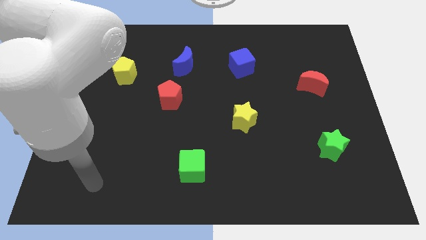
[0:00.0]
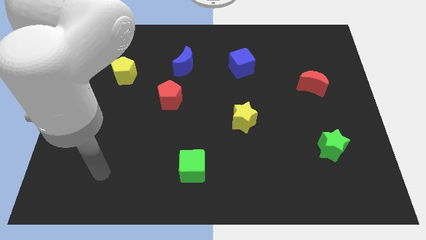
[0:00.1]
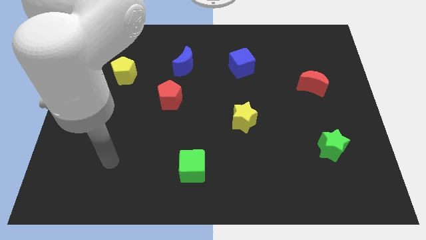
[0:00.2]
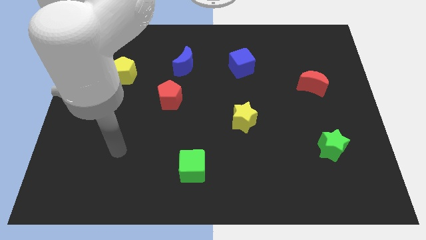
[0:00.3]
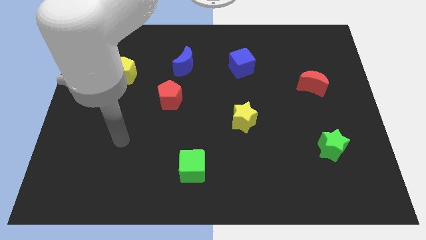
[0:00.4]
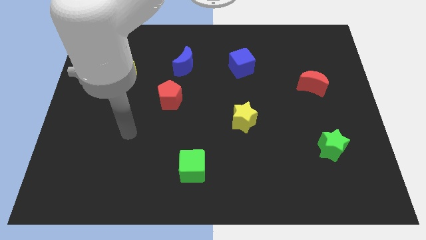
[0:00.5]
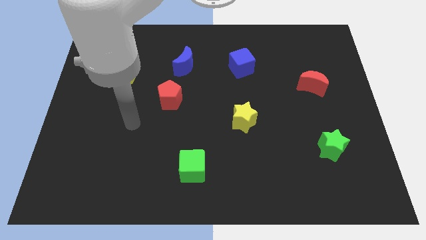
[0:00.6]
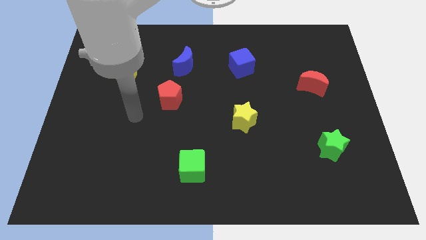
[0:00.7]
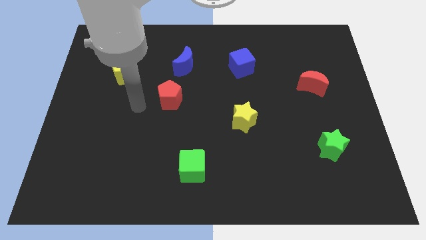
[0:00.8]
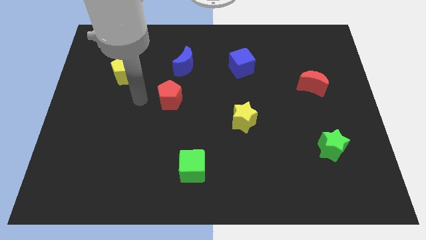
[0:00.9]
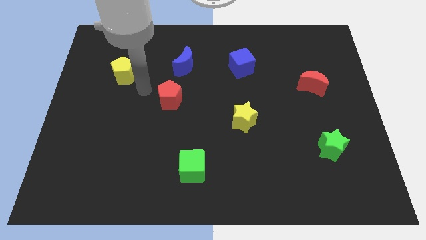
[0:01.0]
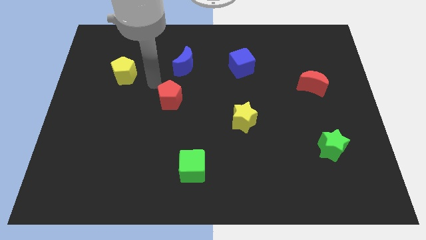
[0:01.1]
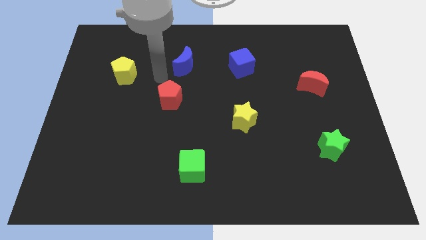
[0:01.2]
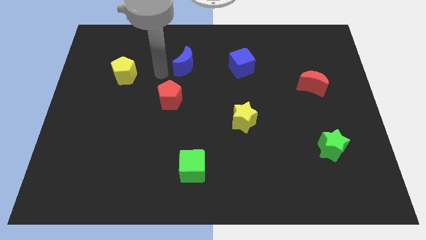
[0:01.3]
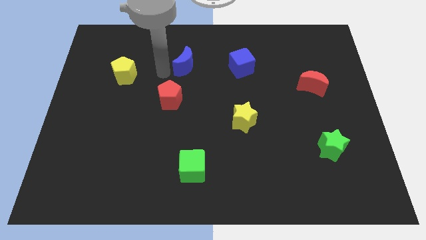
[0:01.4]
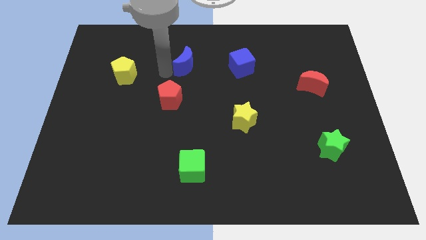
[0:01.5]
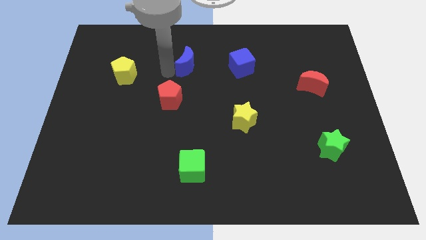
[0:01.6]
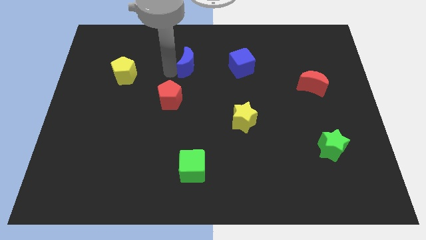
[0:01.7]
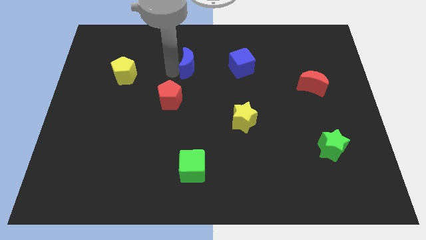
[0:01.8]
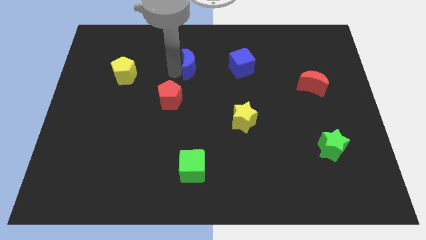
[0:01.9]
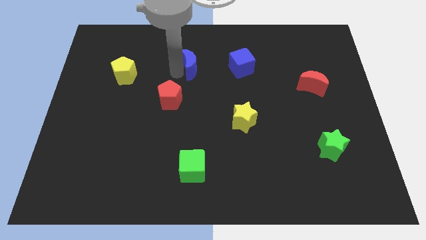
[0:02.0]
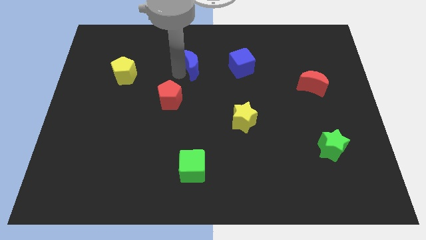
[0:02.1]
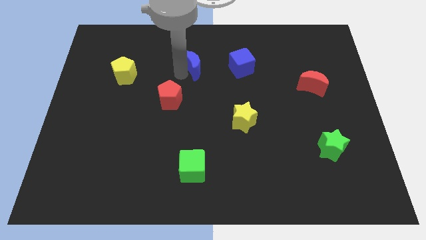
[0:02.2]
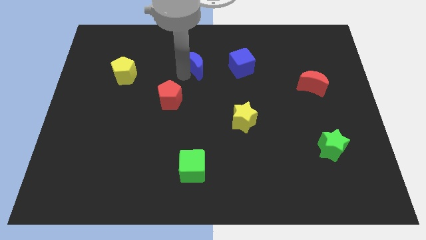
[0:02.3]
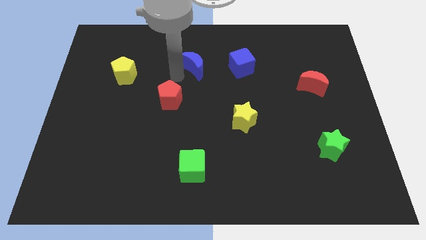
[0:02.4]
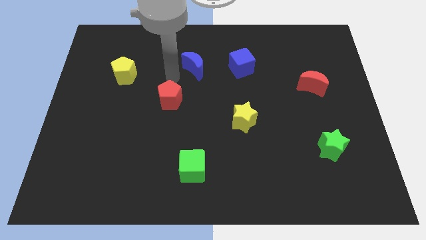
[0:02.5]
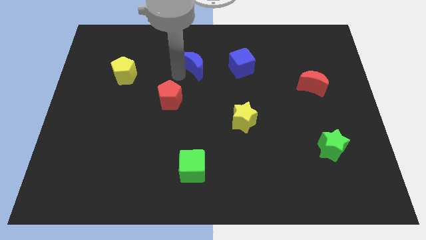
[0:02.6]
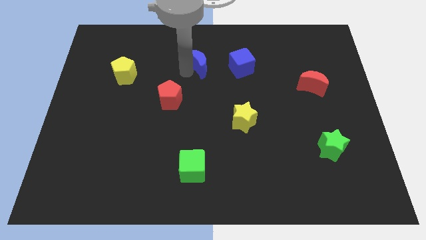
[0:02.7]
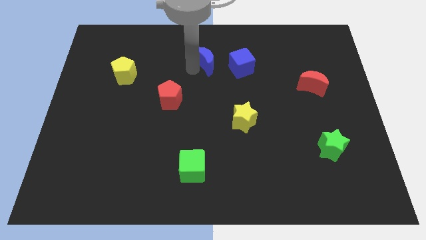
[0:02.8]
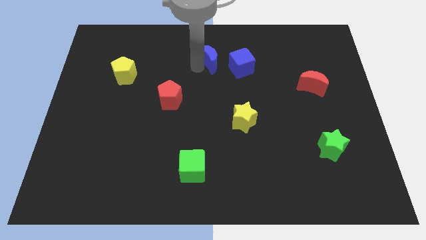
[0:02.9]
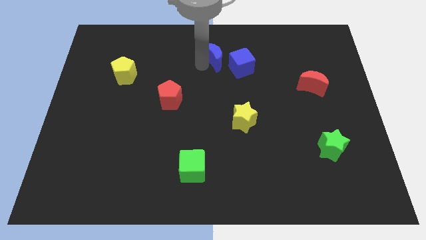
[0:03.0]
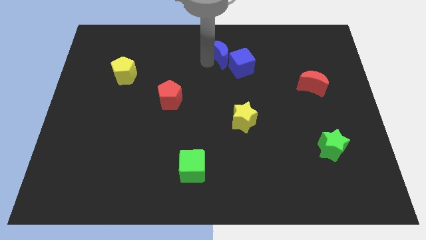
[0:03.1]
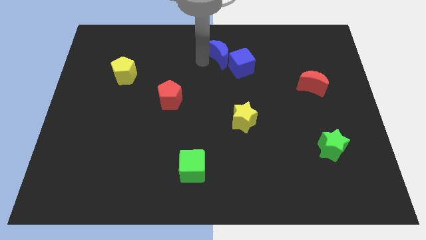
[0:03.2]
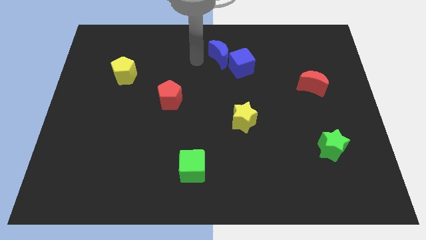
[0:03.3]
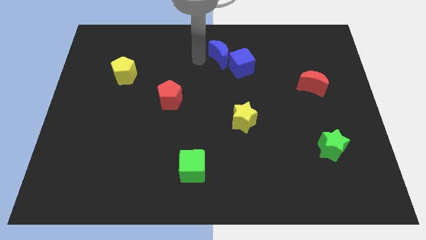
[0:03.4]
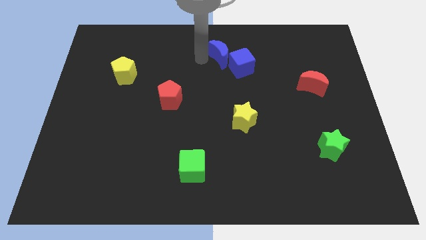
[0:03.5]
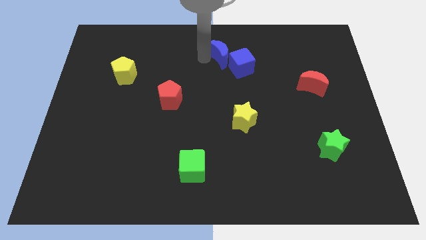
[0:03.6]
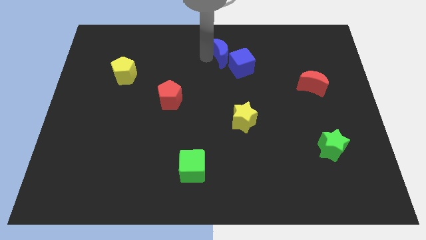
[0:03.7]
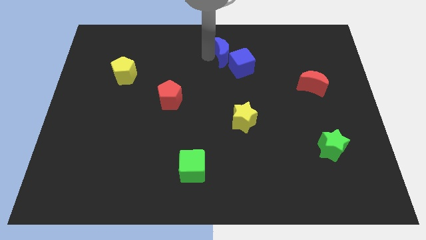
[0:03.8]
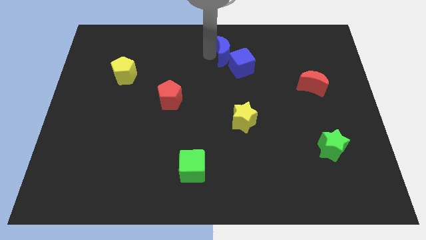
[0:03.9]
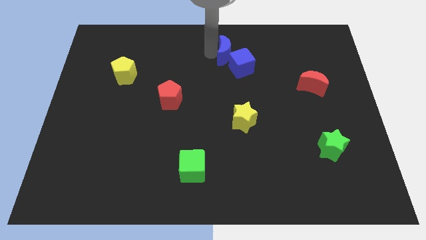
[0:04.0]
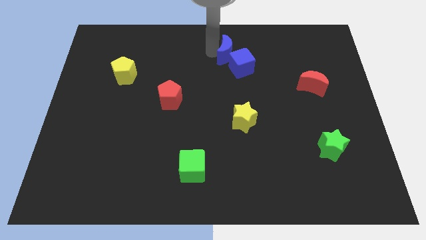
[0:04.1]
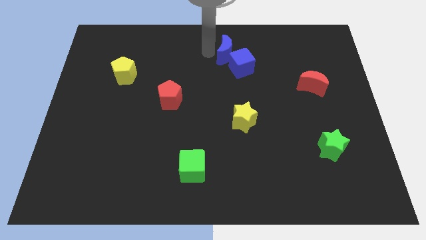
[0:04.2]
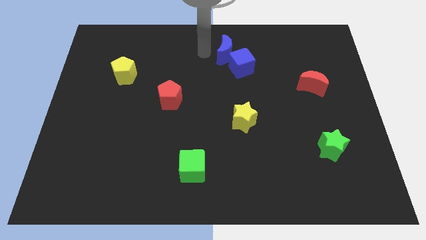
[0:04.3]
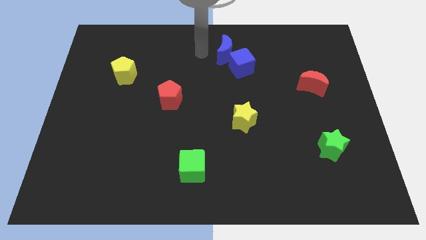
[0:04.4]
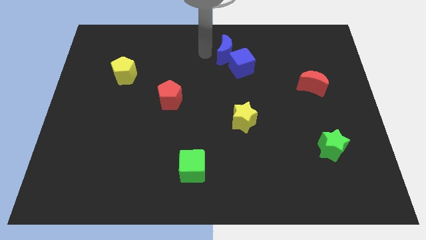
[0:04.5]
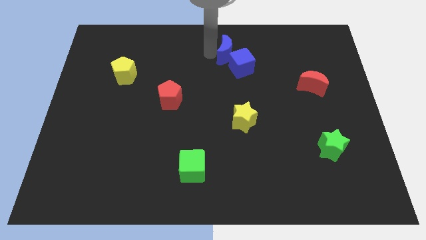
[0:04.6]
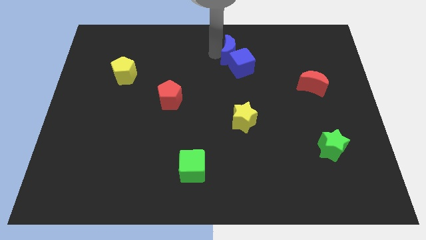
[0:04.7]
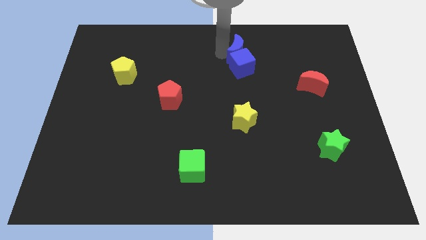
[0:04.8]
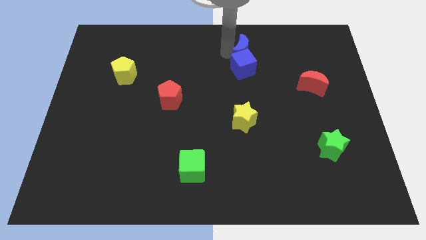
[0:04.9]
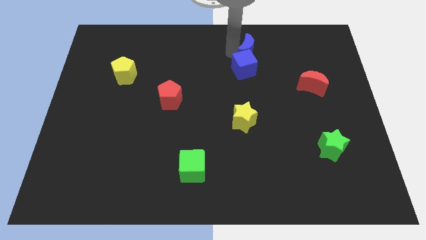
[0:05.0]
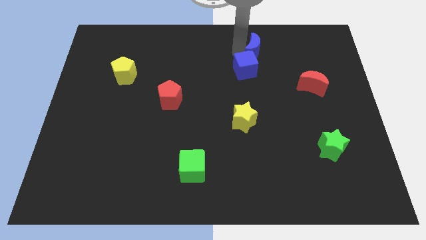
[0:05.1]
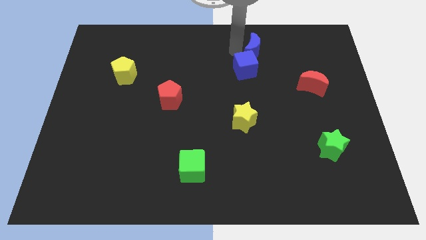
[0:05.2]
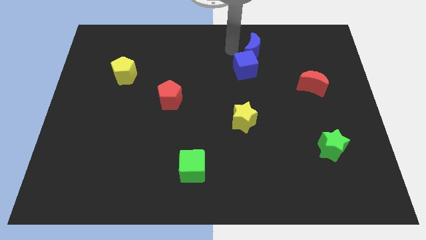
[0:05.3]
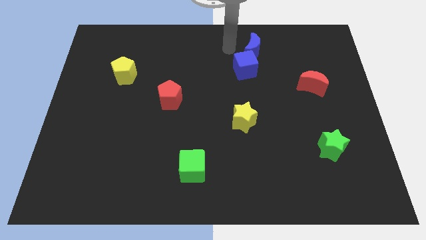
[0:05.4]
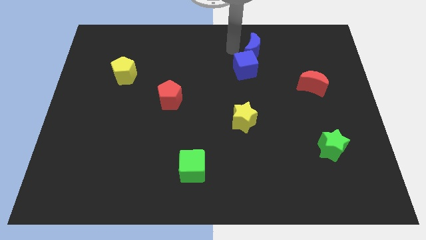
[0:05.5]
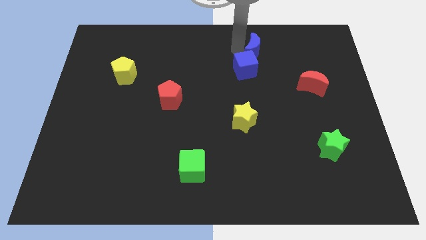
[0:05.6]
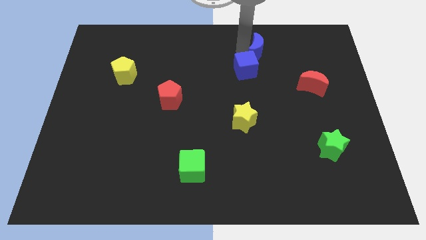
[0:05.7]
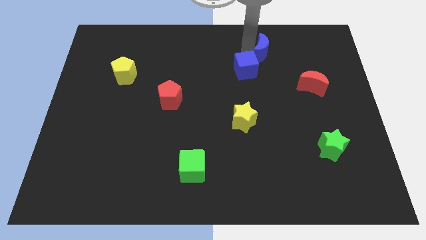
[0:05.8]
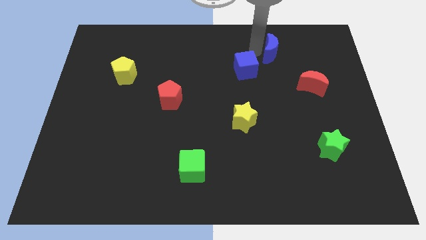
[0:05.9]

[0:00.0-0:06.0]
push the blue moon to the right

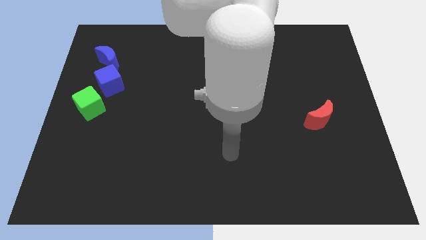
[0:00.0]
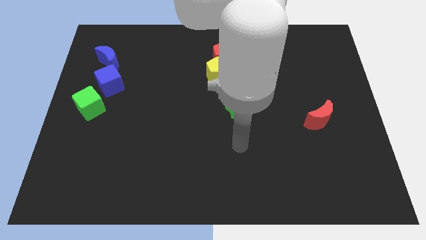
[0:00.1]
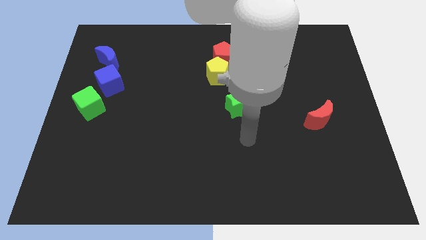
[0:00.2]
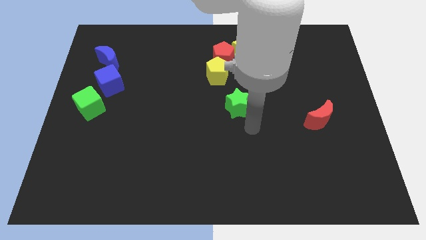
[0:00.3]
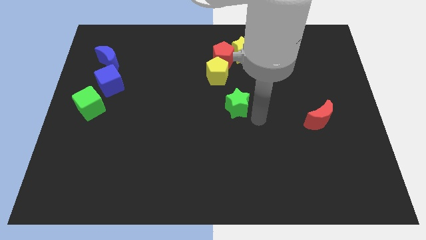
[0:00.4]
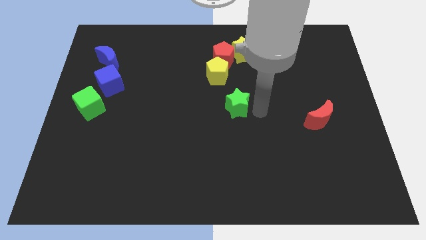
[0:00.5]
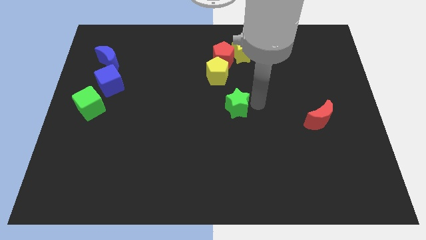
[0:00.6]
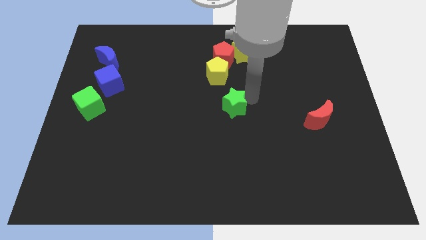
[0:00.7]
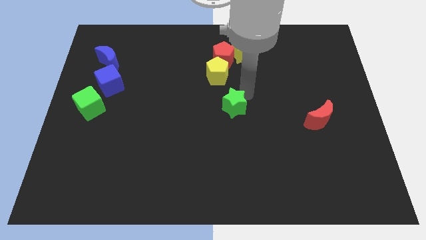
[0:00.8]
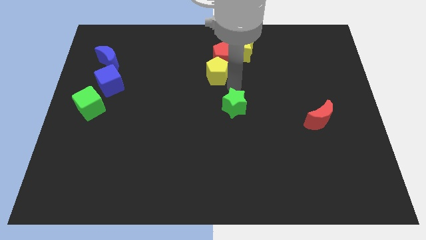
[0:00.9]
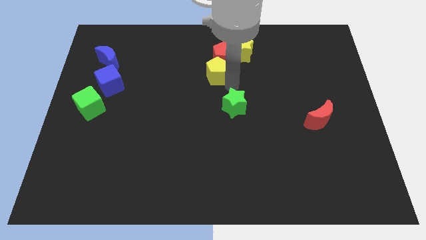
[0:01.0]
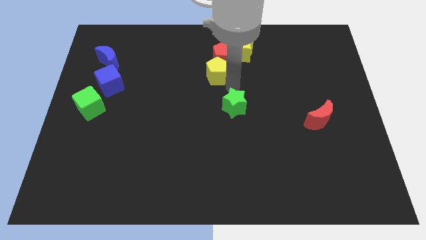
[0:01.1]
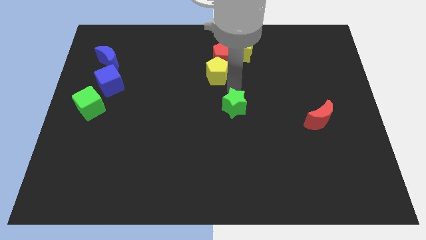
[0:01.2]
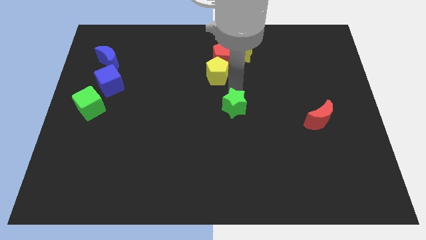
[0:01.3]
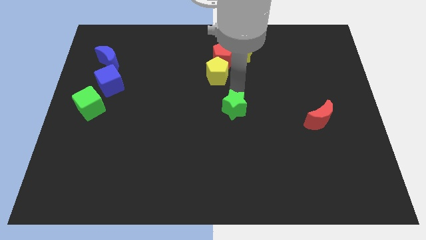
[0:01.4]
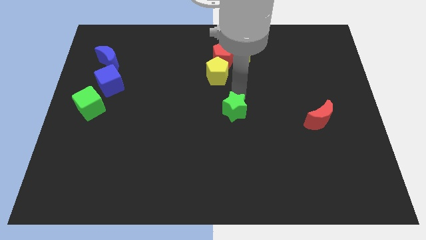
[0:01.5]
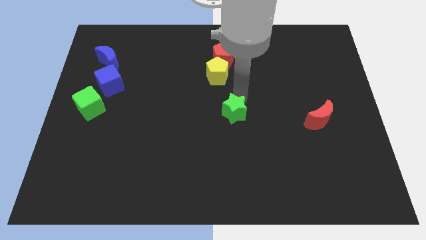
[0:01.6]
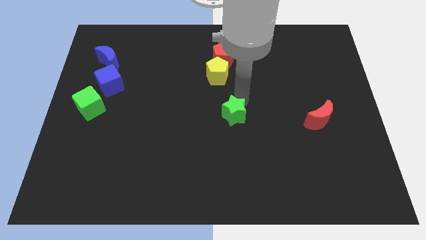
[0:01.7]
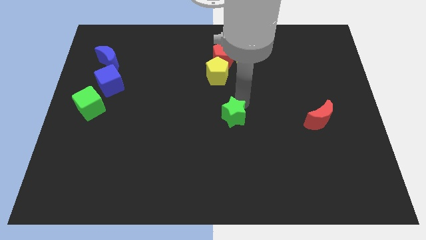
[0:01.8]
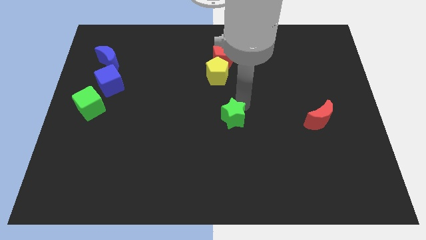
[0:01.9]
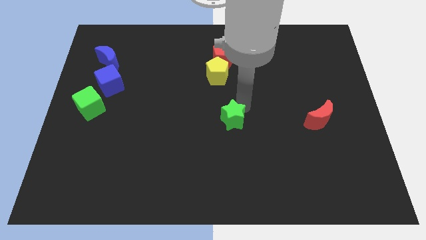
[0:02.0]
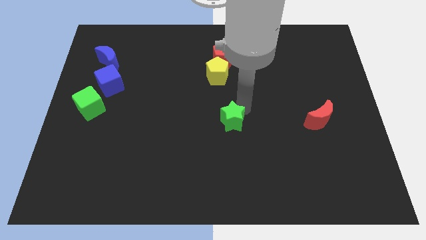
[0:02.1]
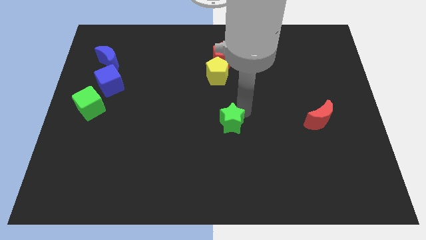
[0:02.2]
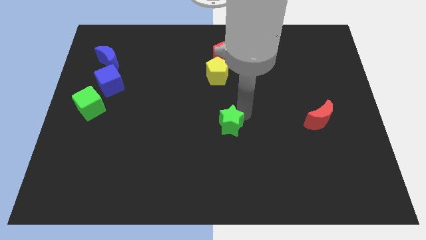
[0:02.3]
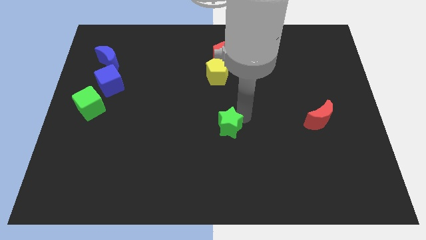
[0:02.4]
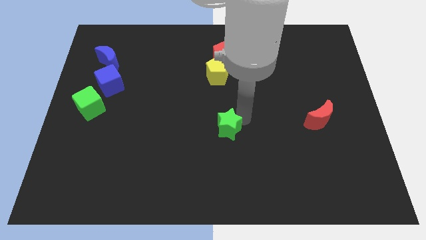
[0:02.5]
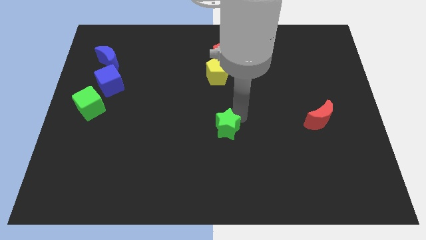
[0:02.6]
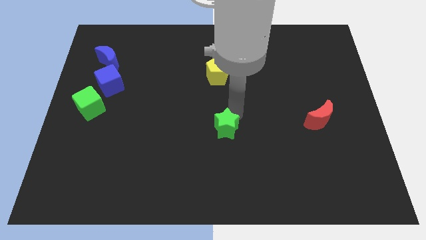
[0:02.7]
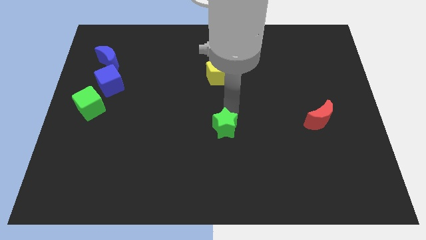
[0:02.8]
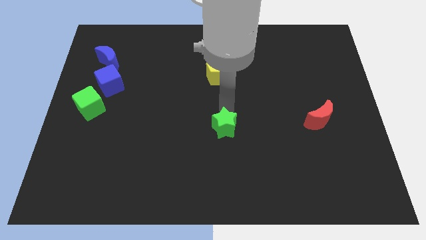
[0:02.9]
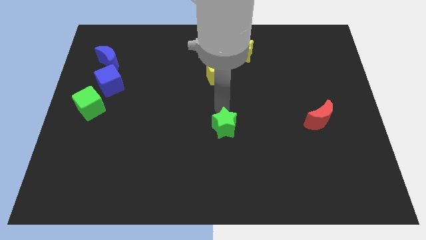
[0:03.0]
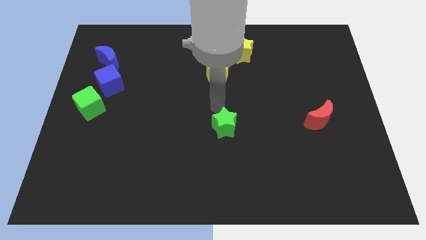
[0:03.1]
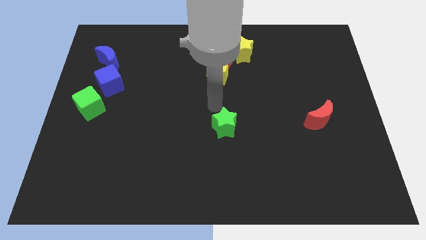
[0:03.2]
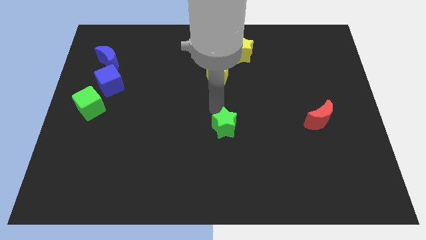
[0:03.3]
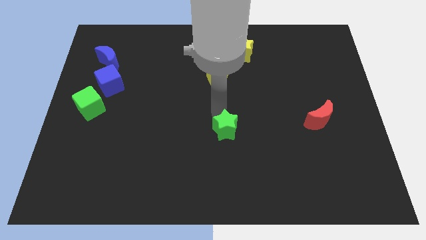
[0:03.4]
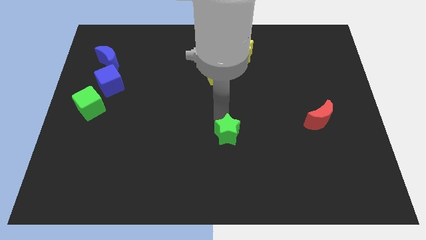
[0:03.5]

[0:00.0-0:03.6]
move the green star a little bit downwards
